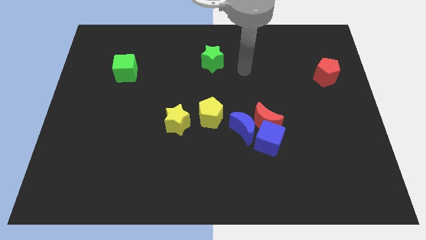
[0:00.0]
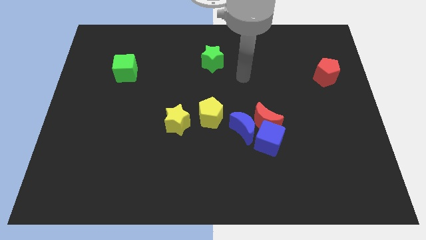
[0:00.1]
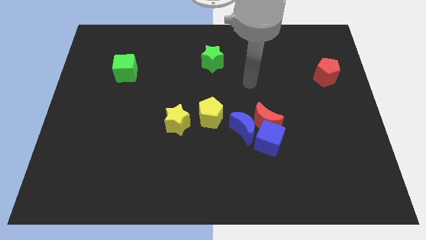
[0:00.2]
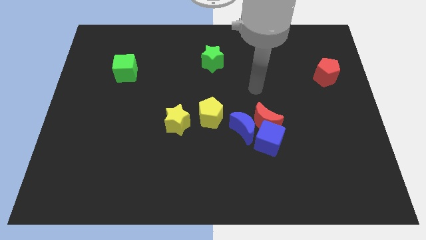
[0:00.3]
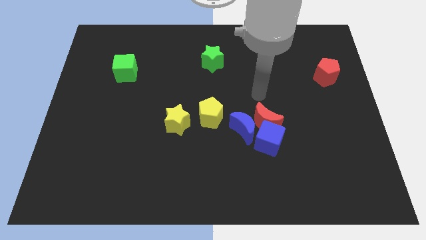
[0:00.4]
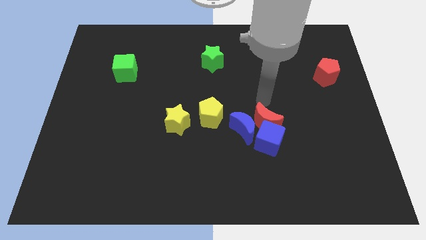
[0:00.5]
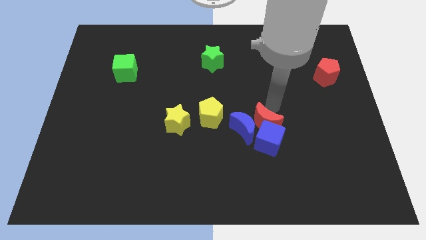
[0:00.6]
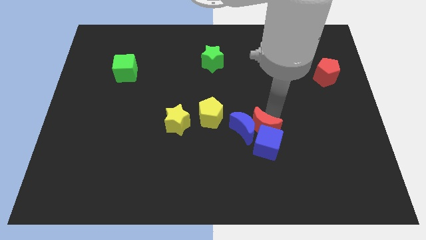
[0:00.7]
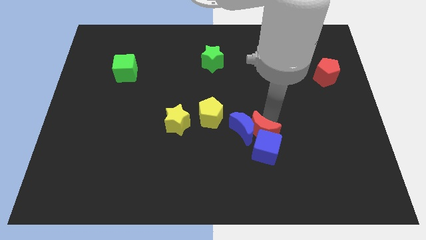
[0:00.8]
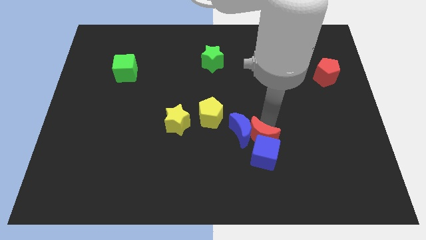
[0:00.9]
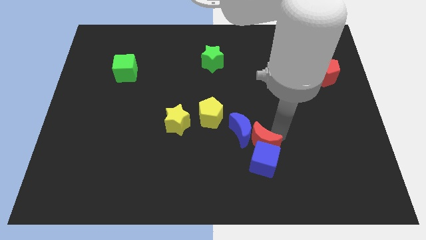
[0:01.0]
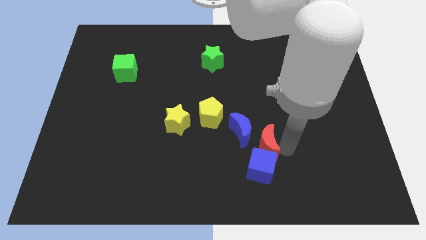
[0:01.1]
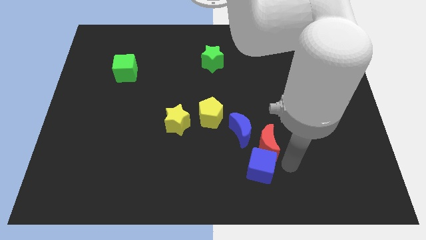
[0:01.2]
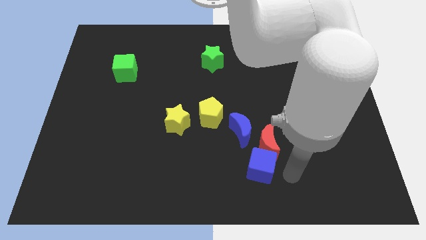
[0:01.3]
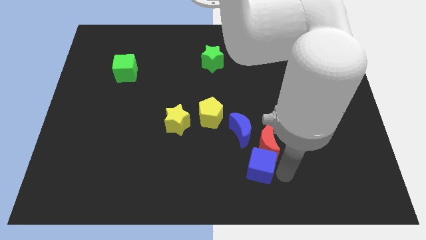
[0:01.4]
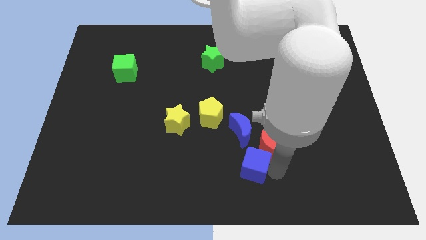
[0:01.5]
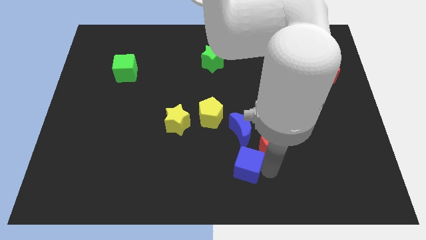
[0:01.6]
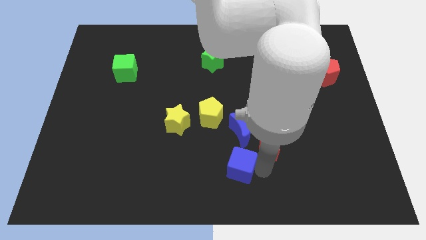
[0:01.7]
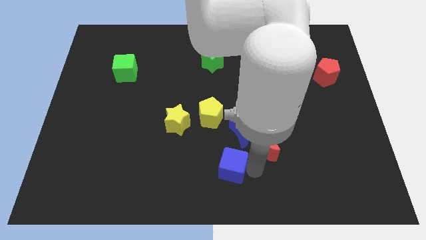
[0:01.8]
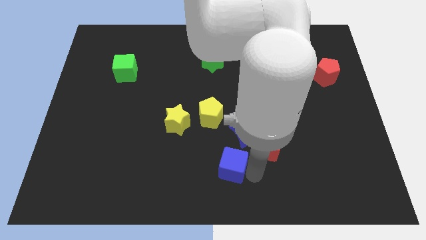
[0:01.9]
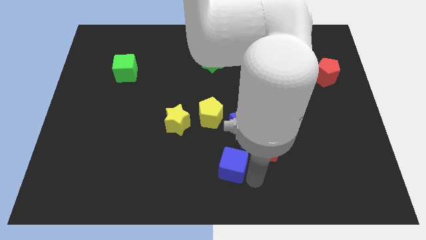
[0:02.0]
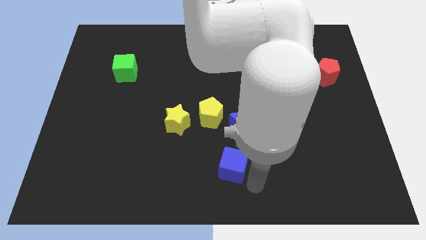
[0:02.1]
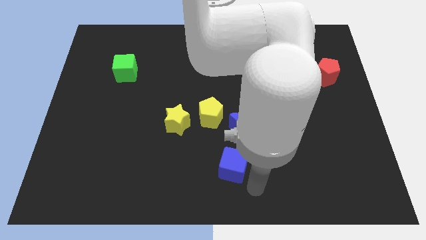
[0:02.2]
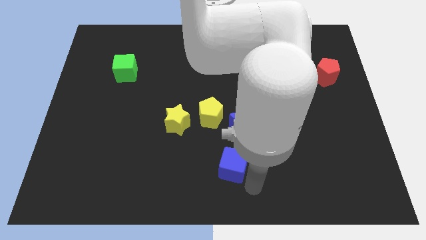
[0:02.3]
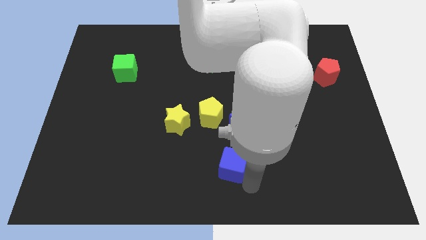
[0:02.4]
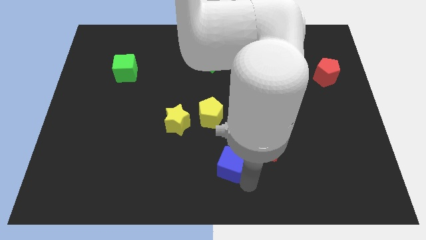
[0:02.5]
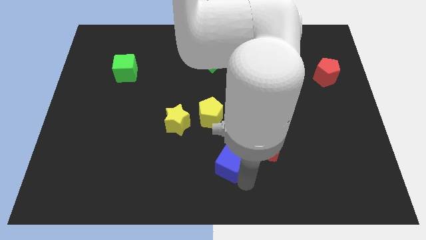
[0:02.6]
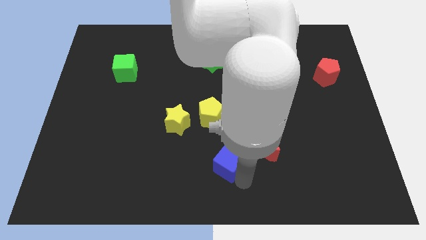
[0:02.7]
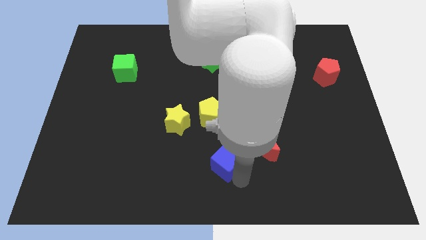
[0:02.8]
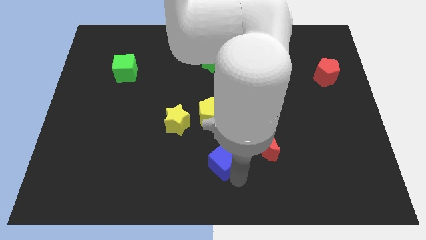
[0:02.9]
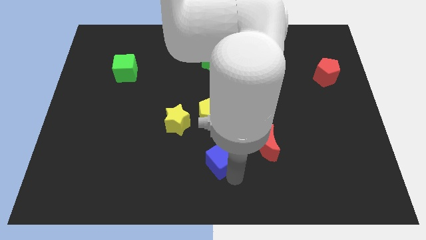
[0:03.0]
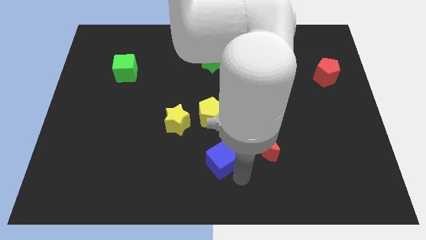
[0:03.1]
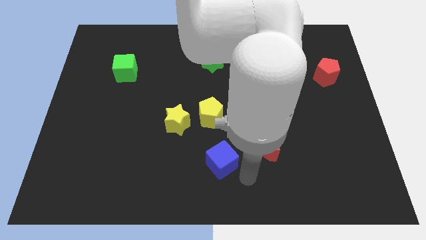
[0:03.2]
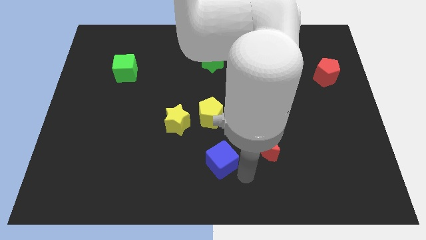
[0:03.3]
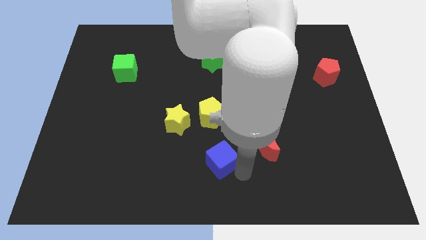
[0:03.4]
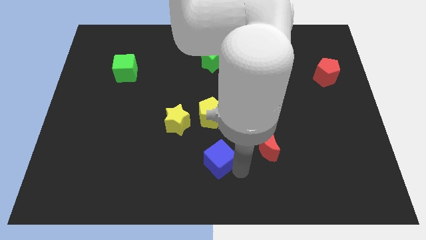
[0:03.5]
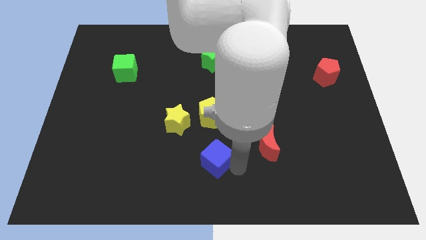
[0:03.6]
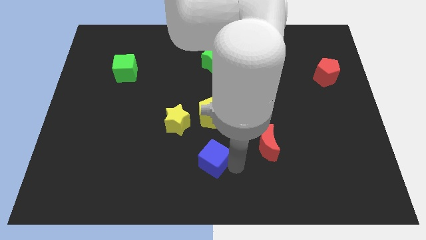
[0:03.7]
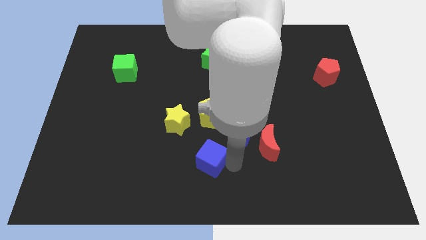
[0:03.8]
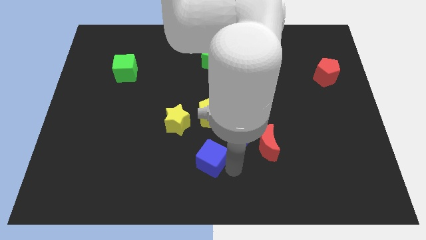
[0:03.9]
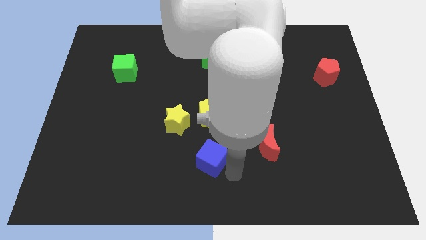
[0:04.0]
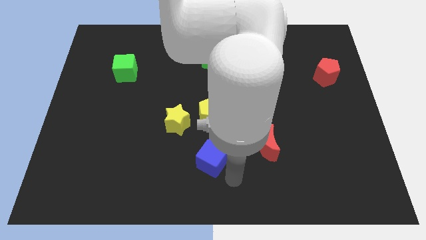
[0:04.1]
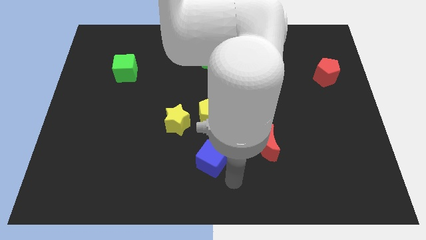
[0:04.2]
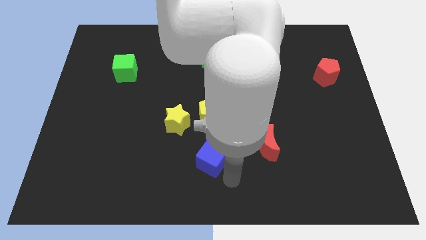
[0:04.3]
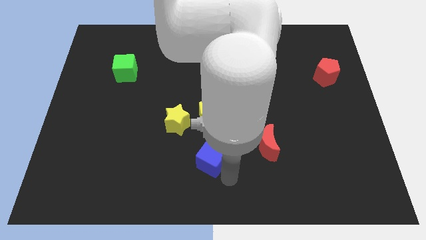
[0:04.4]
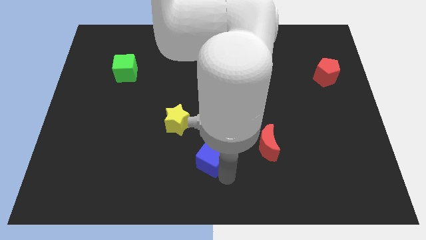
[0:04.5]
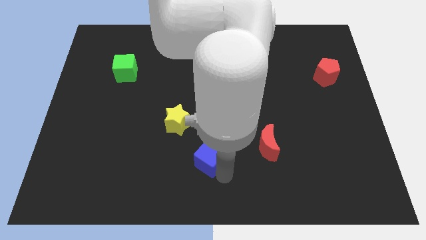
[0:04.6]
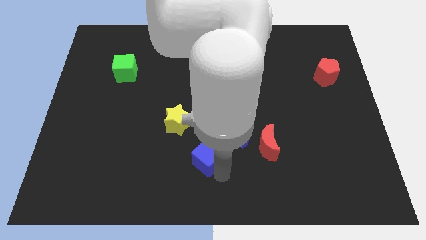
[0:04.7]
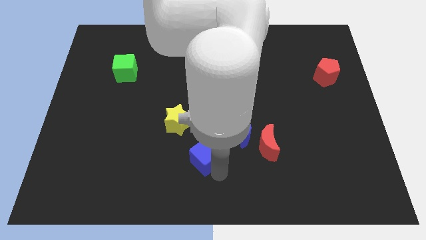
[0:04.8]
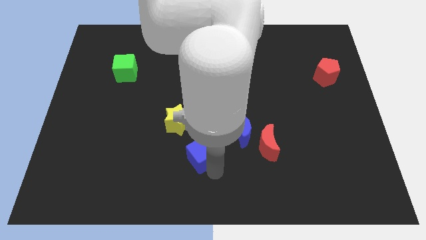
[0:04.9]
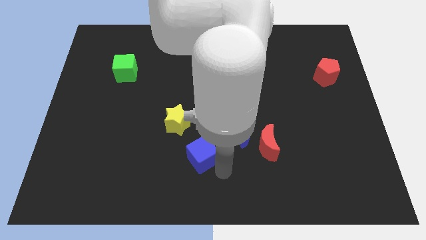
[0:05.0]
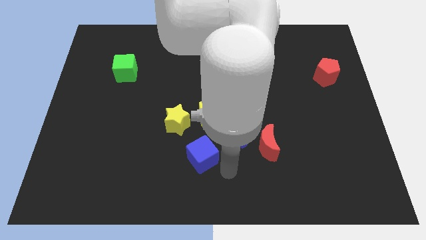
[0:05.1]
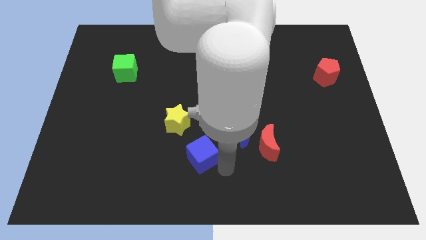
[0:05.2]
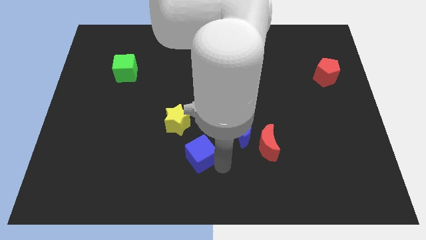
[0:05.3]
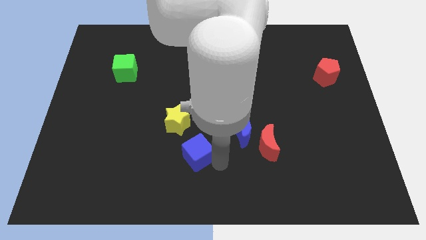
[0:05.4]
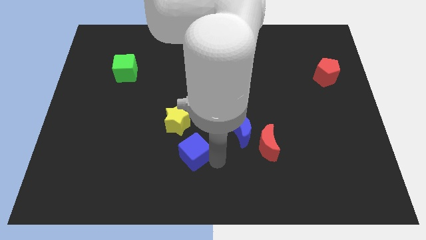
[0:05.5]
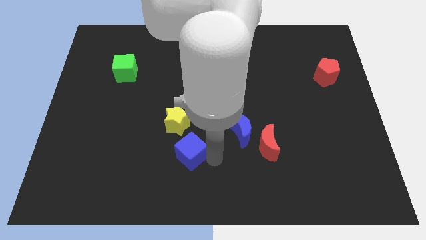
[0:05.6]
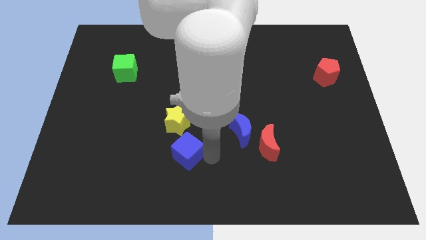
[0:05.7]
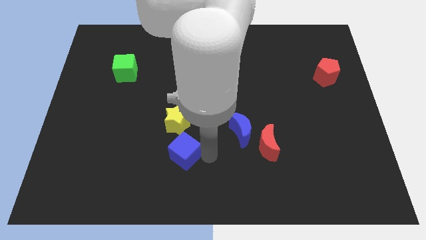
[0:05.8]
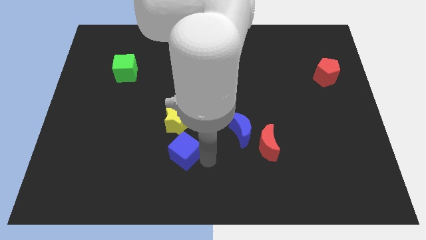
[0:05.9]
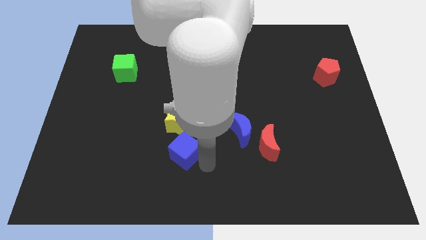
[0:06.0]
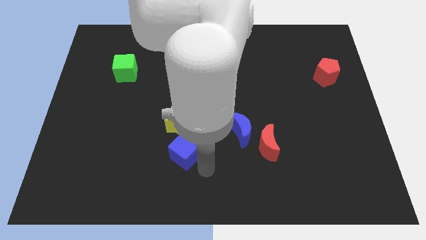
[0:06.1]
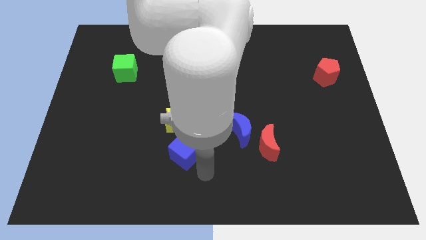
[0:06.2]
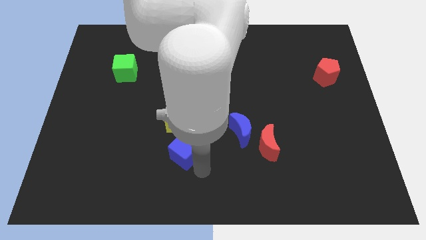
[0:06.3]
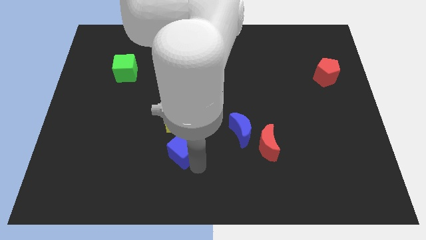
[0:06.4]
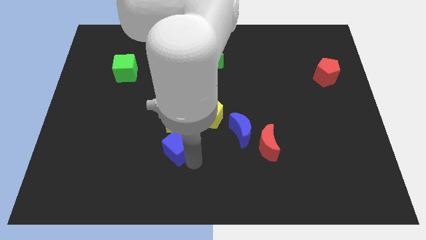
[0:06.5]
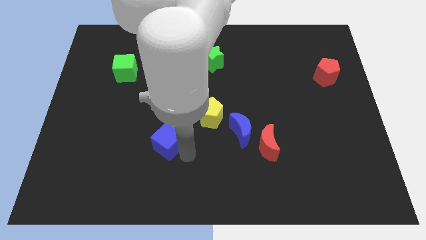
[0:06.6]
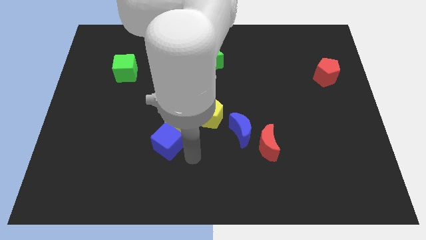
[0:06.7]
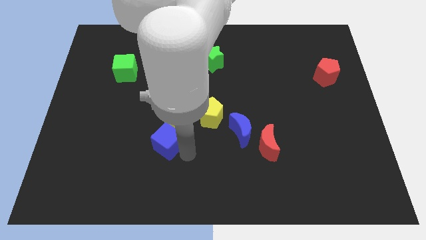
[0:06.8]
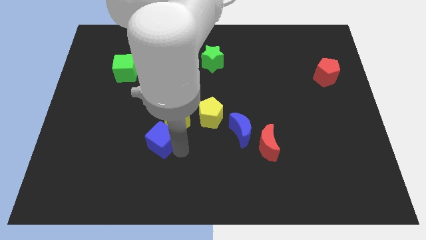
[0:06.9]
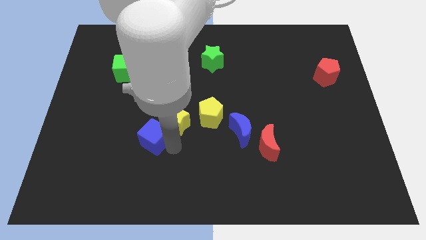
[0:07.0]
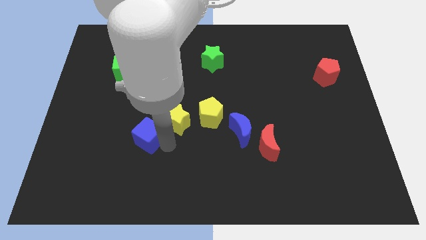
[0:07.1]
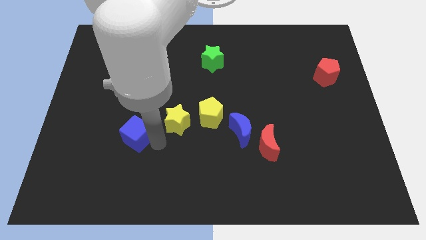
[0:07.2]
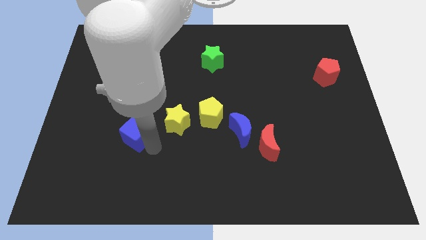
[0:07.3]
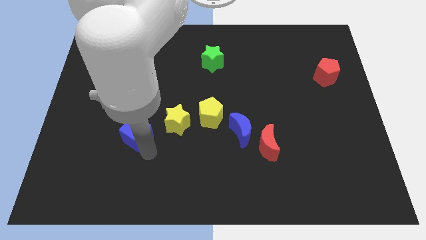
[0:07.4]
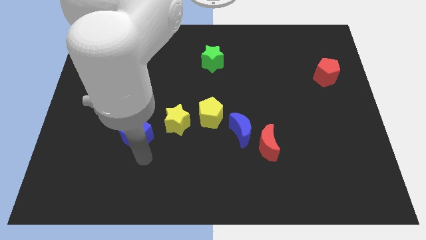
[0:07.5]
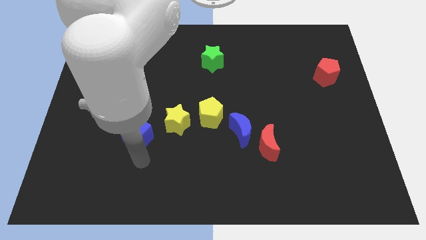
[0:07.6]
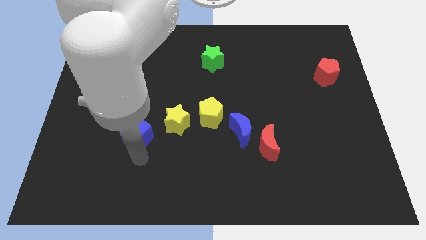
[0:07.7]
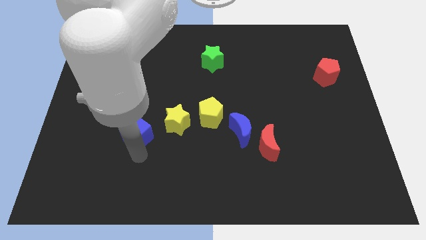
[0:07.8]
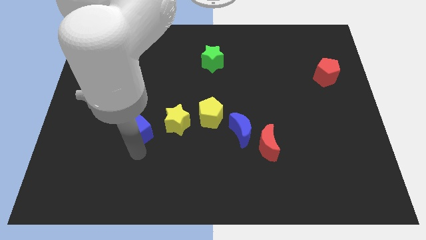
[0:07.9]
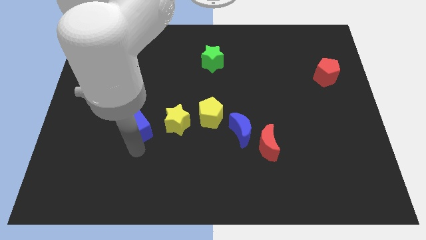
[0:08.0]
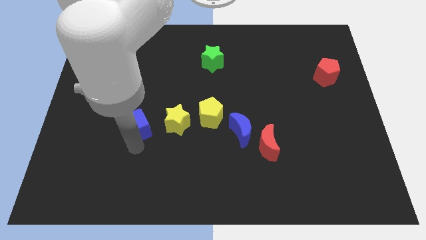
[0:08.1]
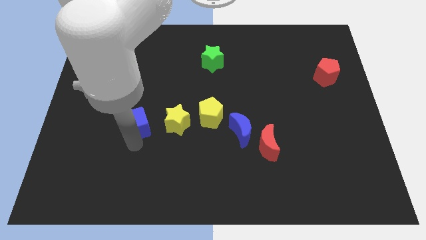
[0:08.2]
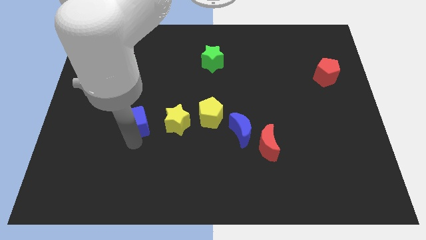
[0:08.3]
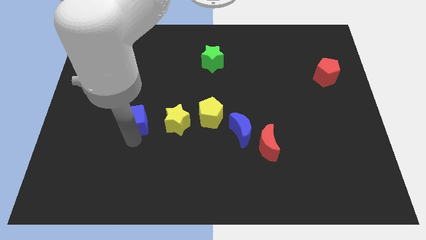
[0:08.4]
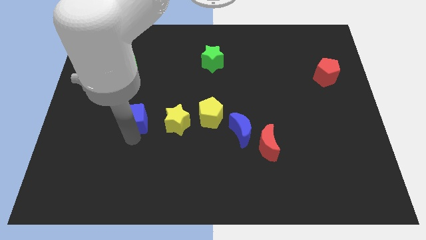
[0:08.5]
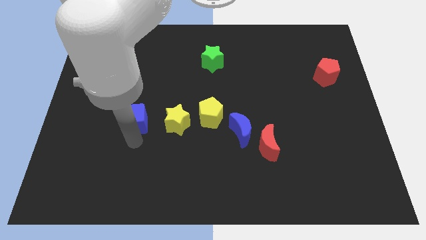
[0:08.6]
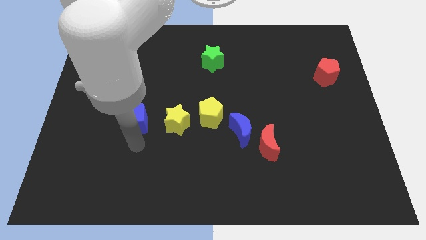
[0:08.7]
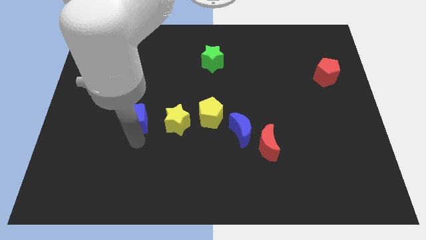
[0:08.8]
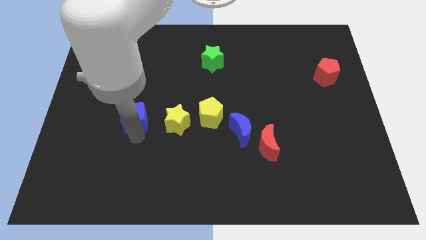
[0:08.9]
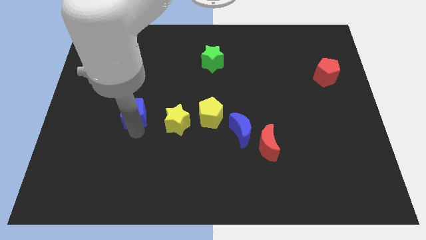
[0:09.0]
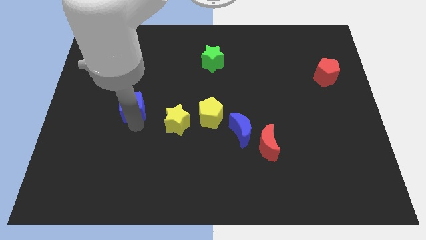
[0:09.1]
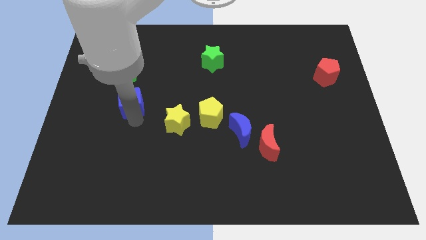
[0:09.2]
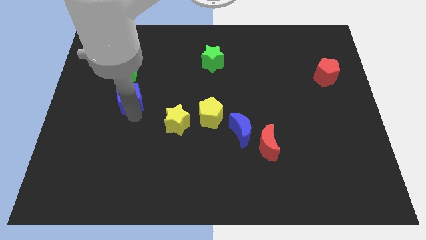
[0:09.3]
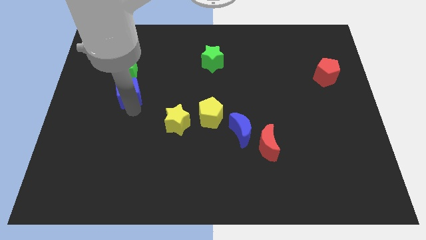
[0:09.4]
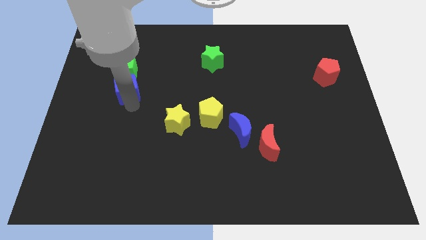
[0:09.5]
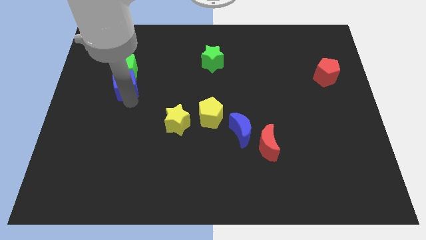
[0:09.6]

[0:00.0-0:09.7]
push the blue cube towards the green cube
